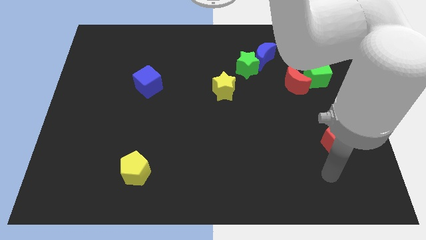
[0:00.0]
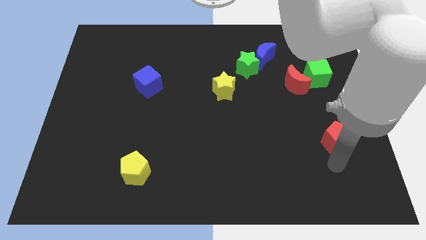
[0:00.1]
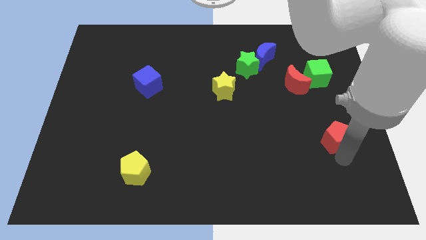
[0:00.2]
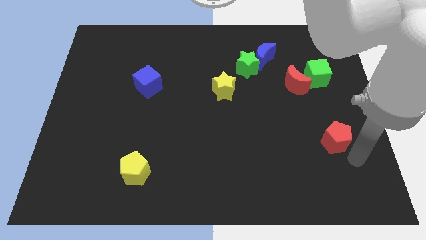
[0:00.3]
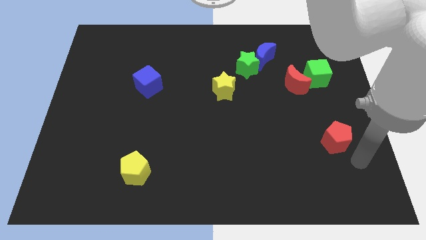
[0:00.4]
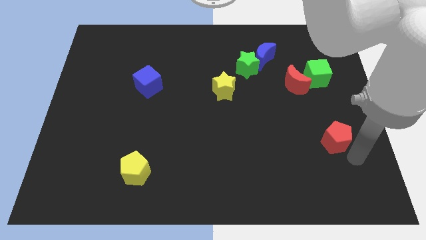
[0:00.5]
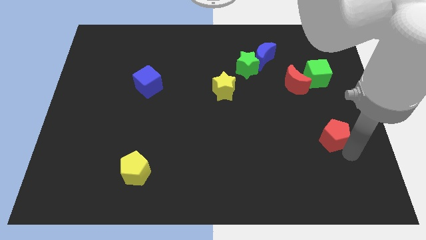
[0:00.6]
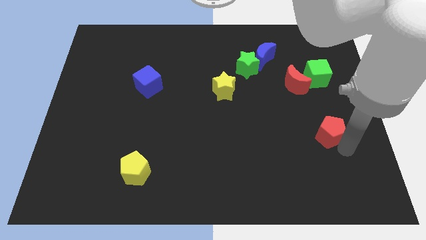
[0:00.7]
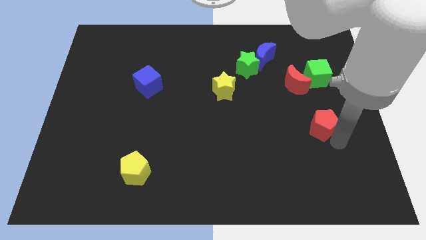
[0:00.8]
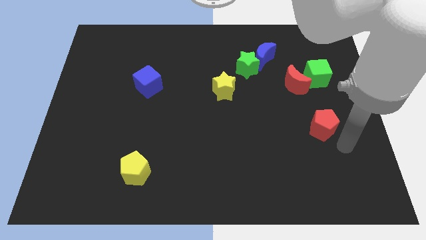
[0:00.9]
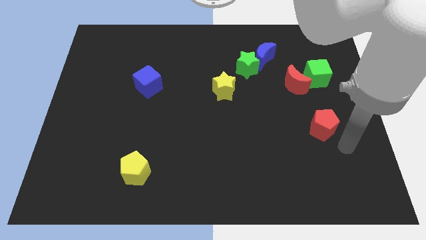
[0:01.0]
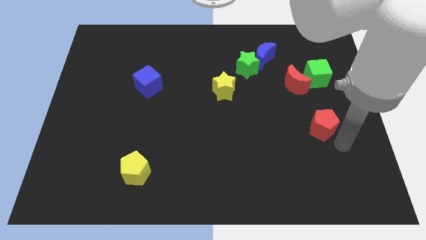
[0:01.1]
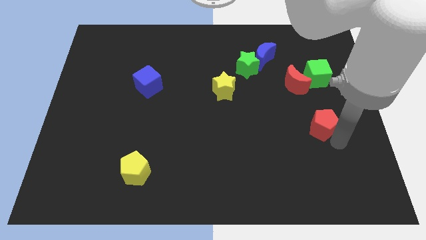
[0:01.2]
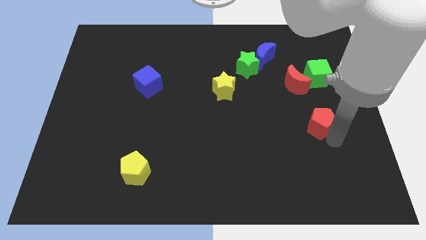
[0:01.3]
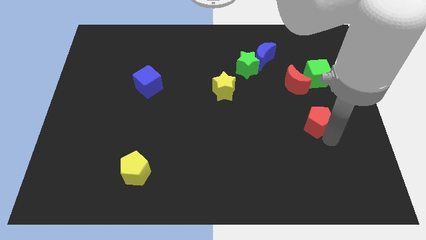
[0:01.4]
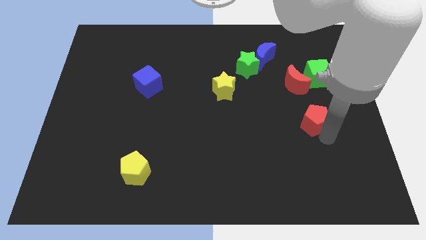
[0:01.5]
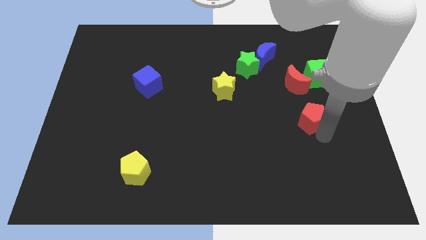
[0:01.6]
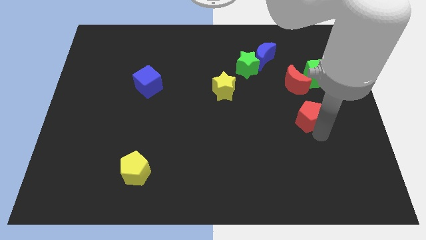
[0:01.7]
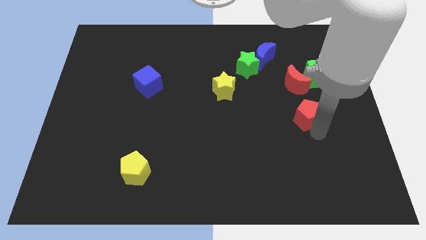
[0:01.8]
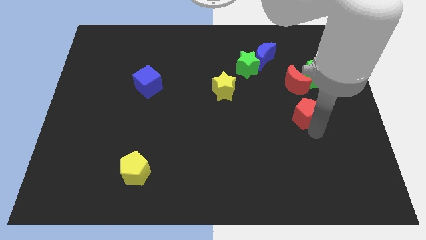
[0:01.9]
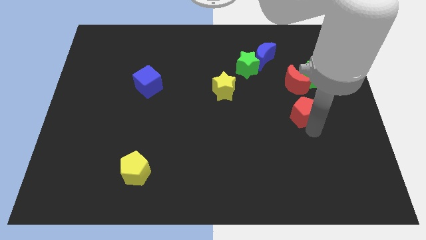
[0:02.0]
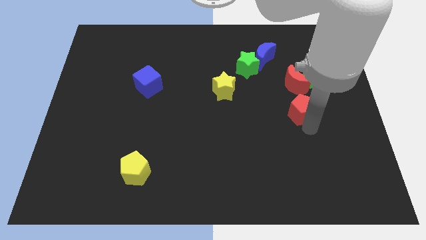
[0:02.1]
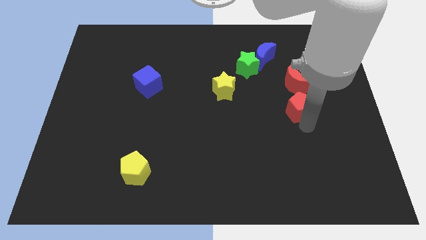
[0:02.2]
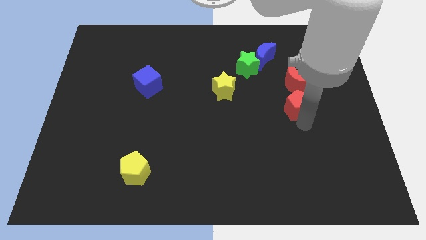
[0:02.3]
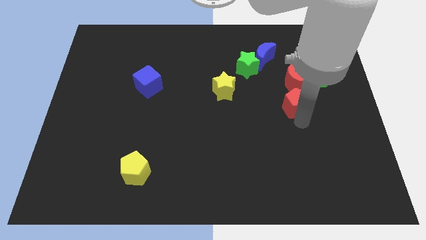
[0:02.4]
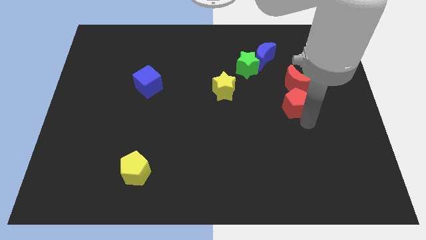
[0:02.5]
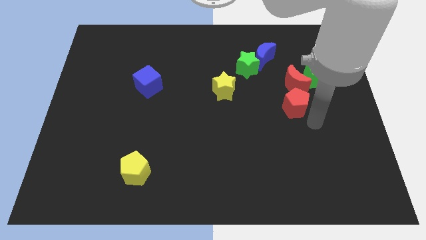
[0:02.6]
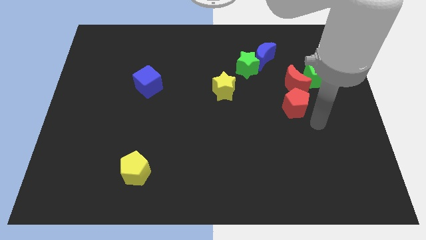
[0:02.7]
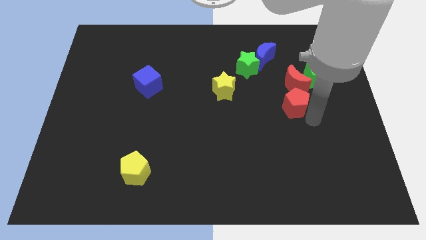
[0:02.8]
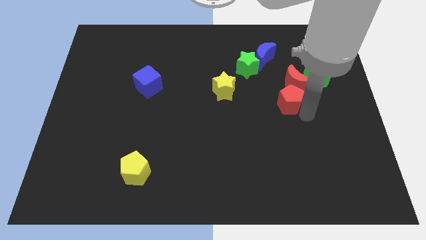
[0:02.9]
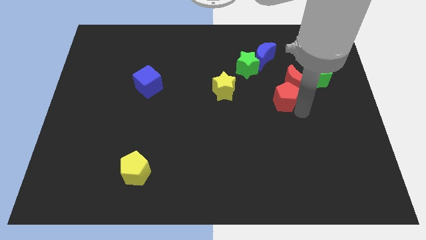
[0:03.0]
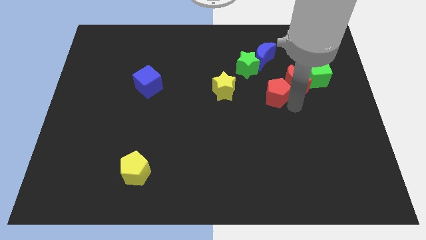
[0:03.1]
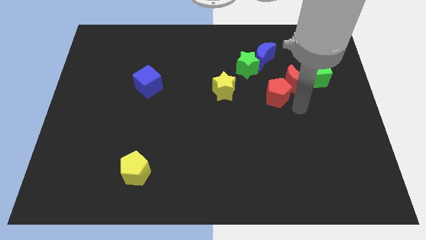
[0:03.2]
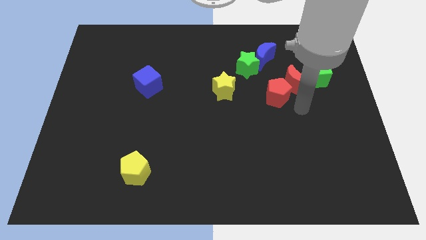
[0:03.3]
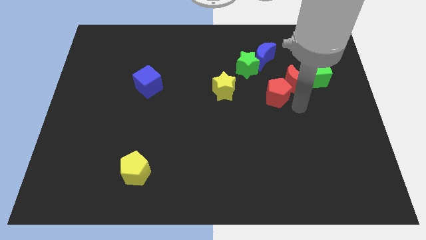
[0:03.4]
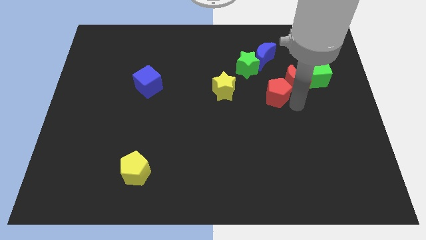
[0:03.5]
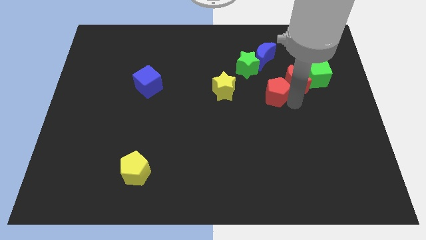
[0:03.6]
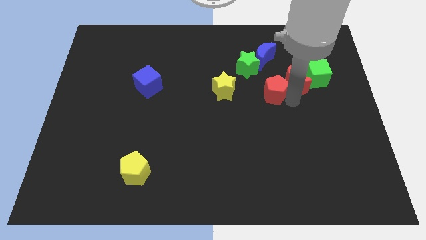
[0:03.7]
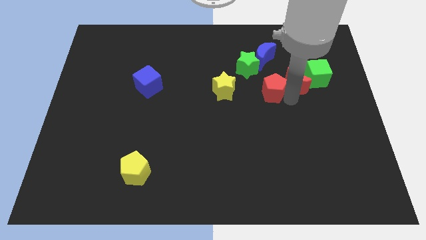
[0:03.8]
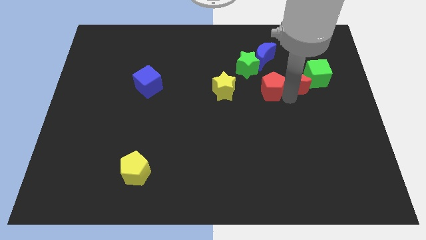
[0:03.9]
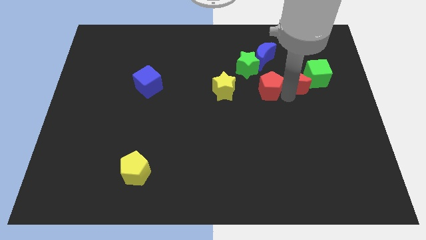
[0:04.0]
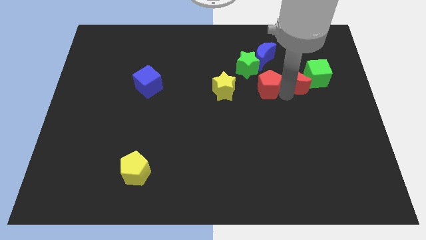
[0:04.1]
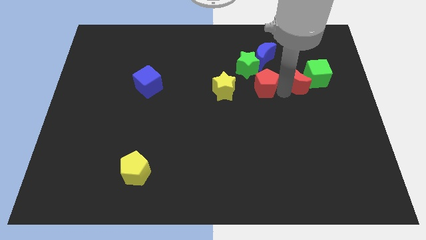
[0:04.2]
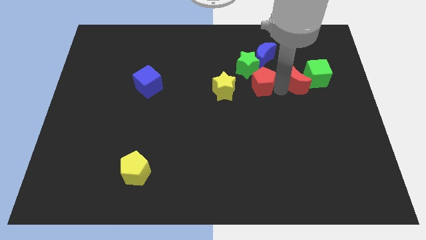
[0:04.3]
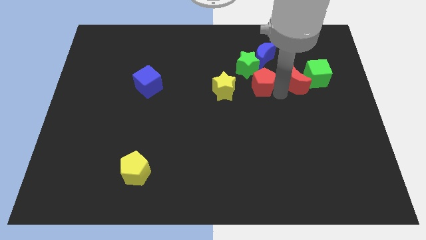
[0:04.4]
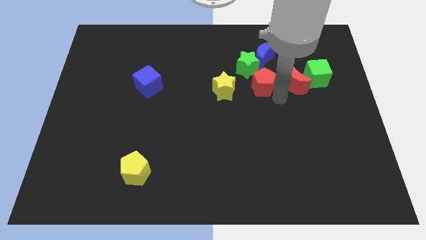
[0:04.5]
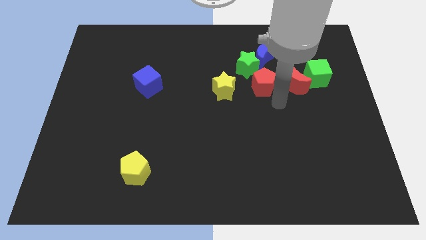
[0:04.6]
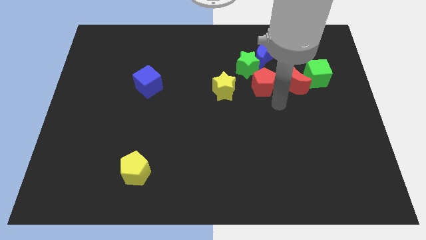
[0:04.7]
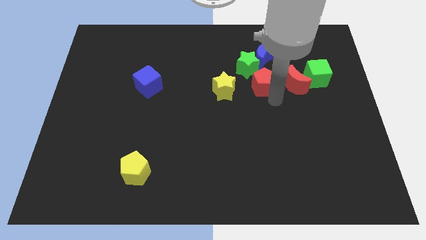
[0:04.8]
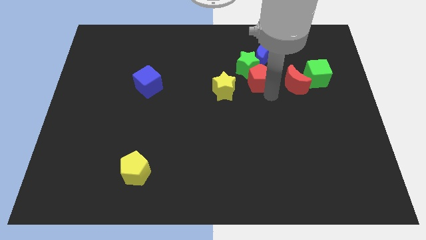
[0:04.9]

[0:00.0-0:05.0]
move the red pentagon to the green star

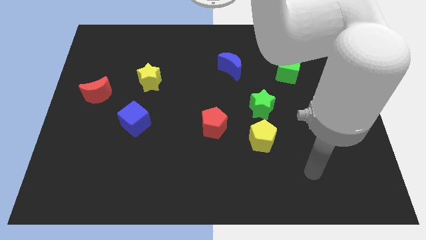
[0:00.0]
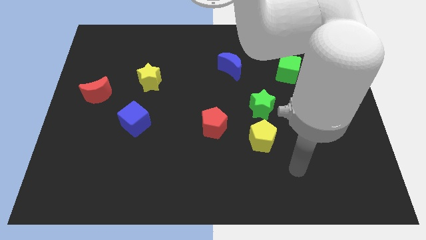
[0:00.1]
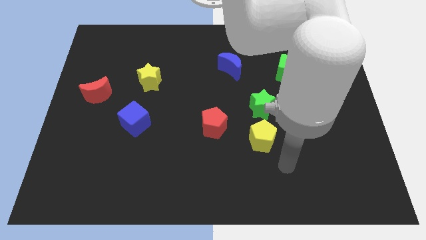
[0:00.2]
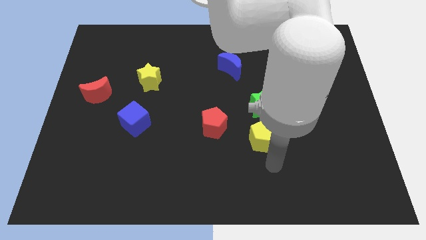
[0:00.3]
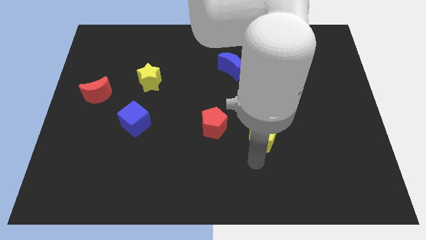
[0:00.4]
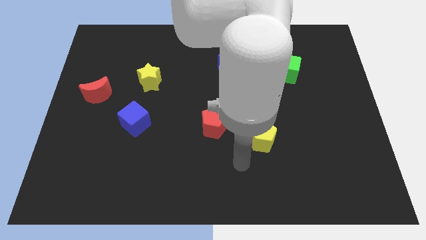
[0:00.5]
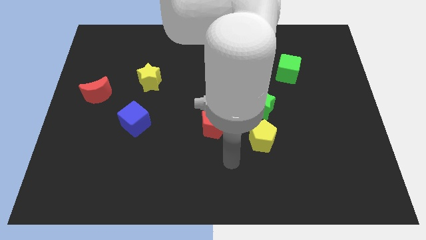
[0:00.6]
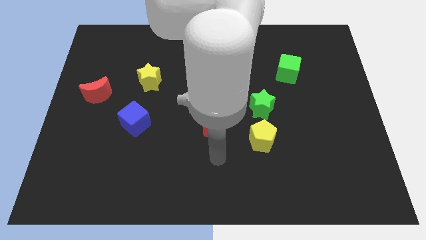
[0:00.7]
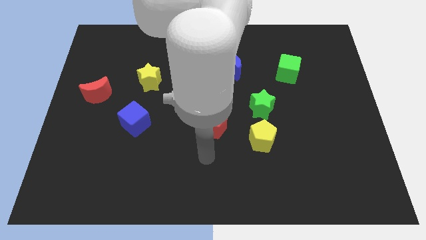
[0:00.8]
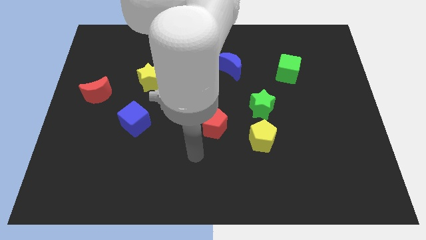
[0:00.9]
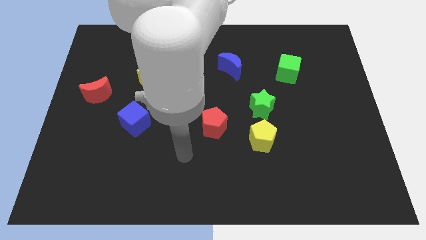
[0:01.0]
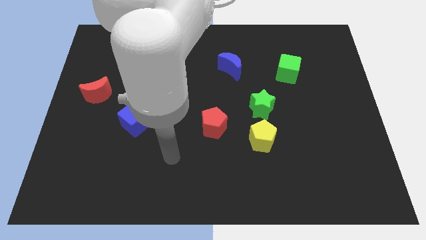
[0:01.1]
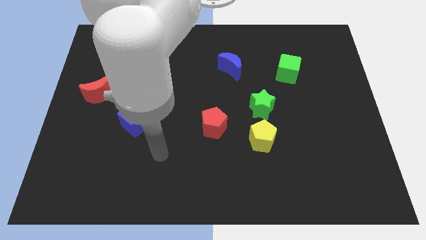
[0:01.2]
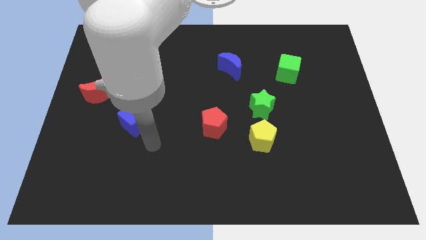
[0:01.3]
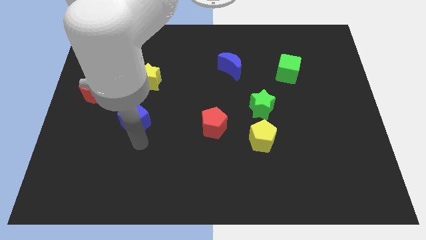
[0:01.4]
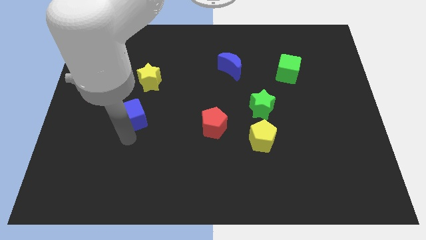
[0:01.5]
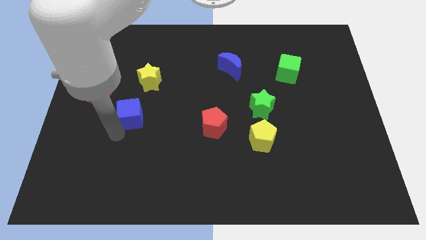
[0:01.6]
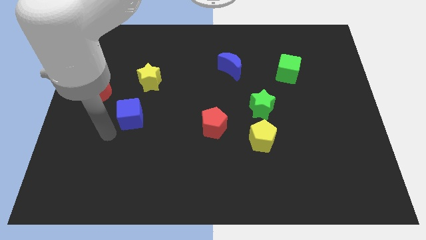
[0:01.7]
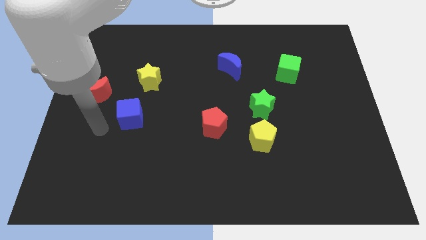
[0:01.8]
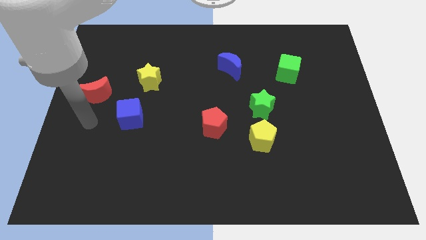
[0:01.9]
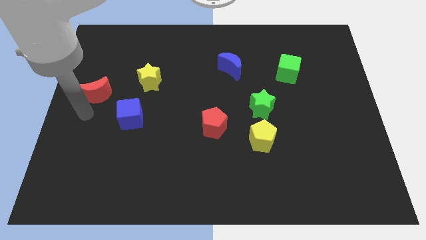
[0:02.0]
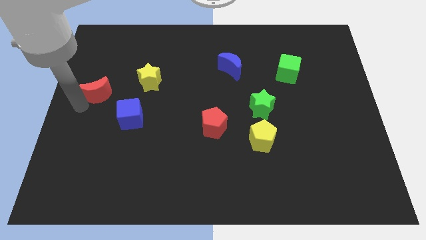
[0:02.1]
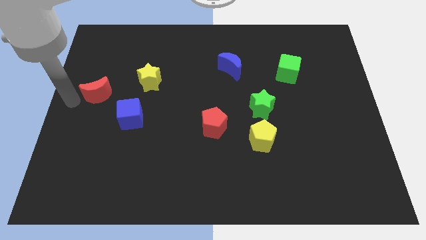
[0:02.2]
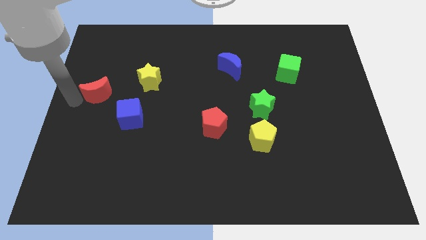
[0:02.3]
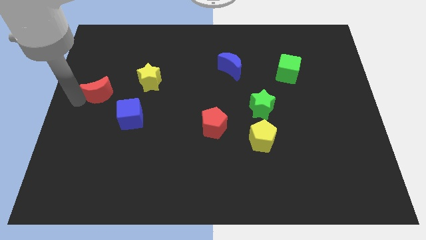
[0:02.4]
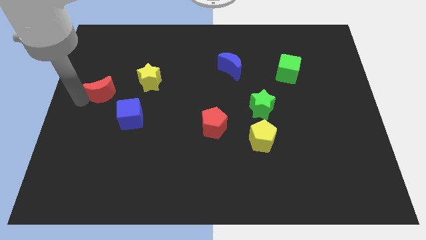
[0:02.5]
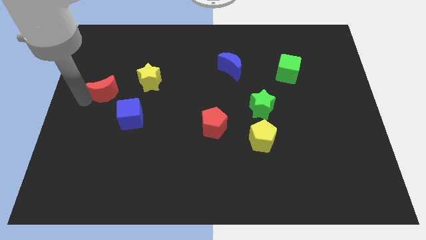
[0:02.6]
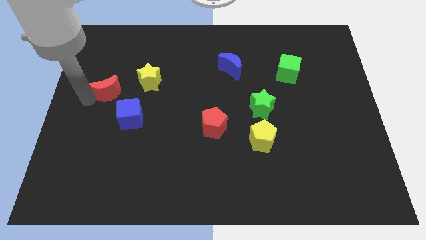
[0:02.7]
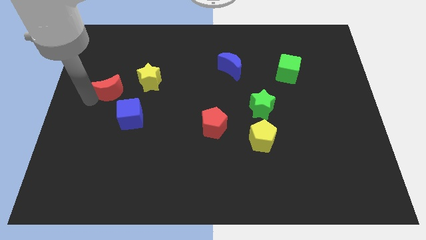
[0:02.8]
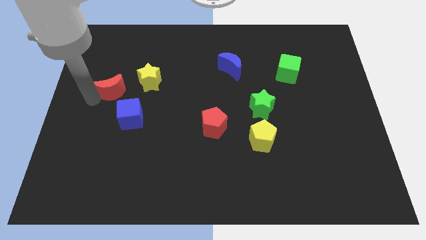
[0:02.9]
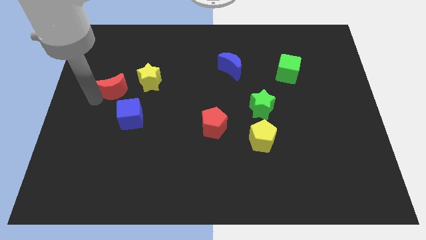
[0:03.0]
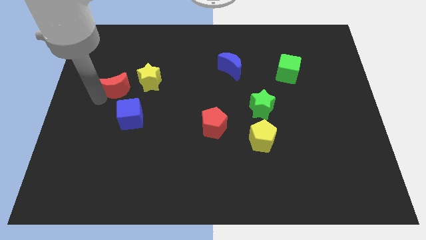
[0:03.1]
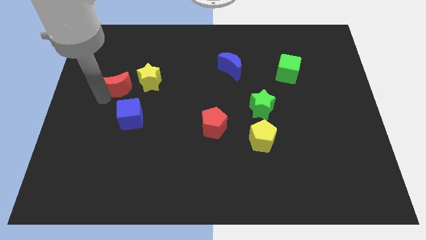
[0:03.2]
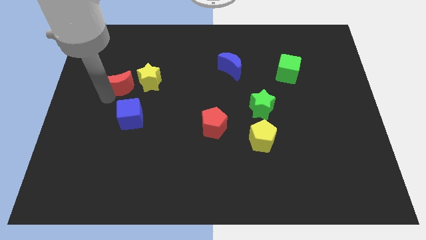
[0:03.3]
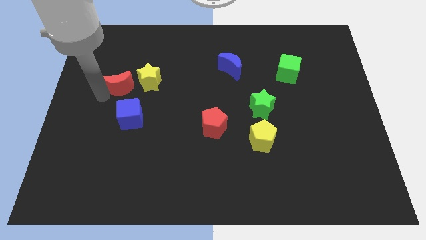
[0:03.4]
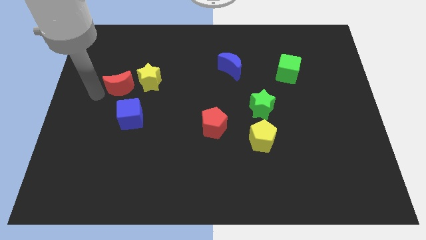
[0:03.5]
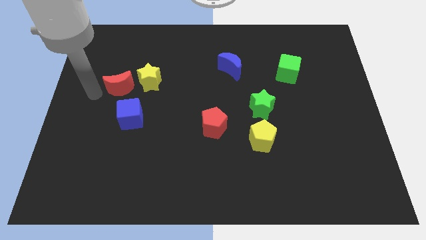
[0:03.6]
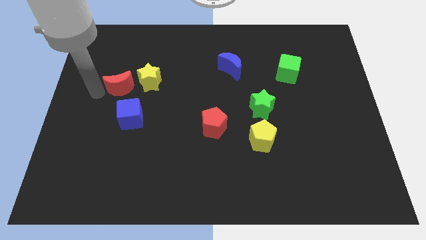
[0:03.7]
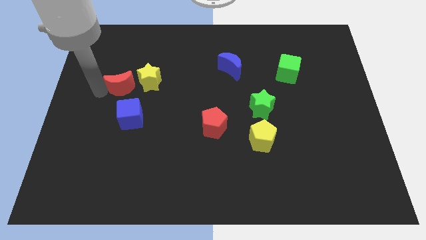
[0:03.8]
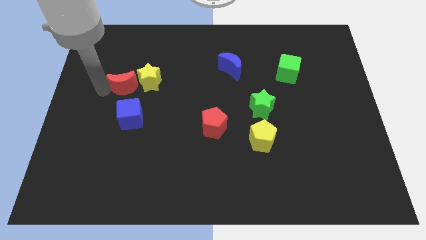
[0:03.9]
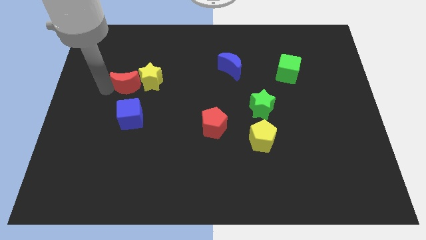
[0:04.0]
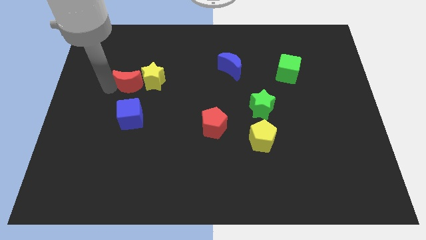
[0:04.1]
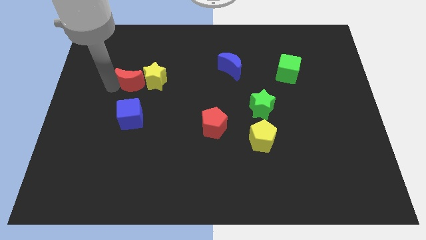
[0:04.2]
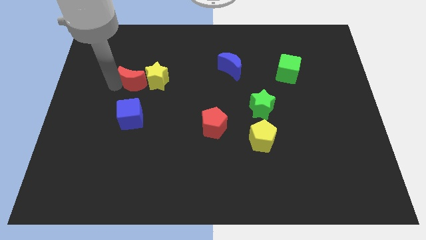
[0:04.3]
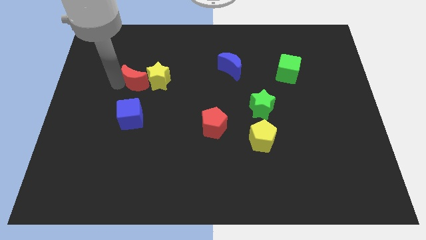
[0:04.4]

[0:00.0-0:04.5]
slide the red moon towards the yellow star
